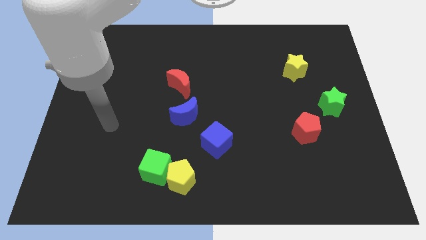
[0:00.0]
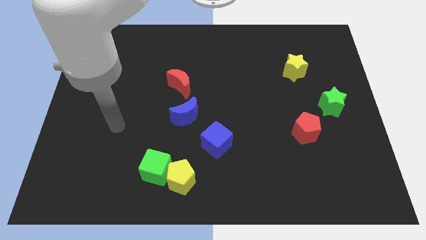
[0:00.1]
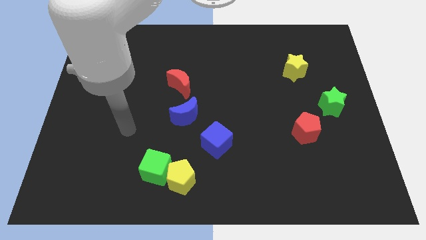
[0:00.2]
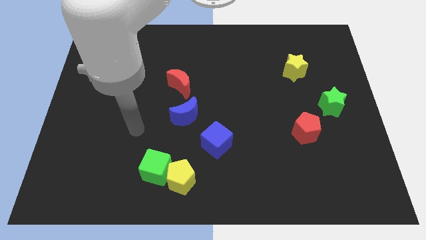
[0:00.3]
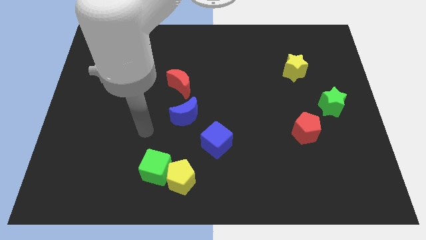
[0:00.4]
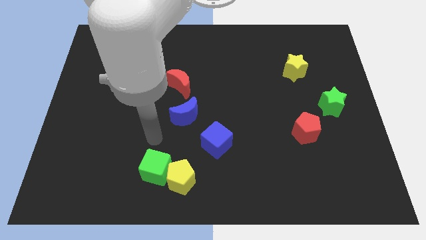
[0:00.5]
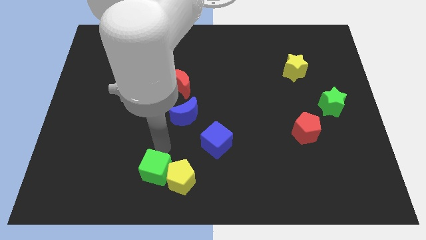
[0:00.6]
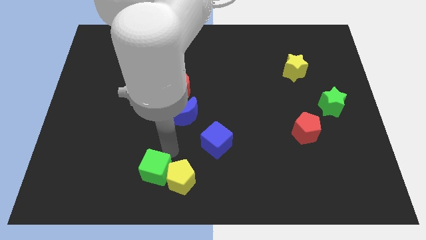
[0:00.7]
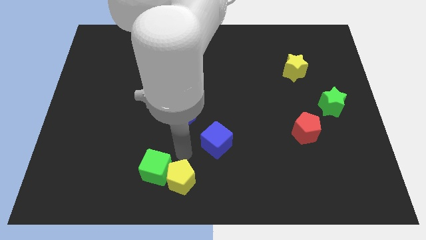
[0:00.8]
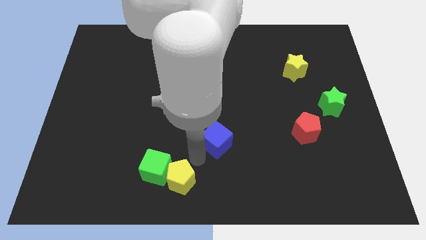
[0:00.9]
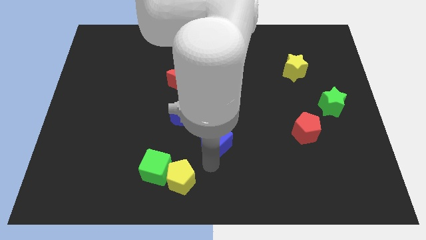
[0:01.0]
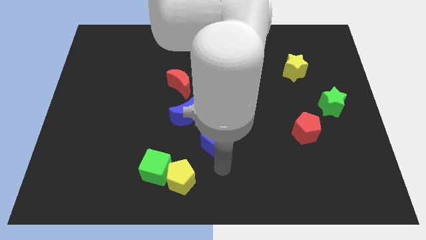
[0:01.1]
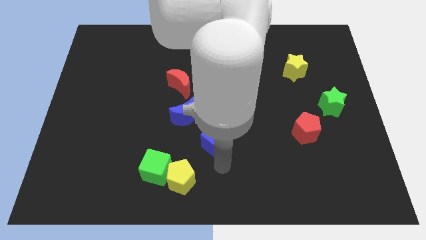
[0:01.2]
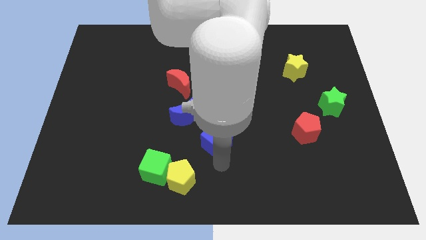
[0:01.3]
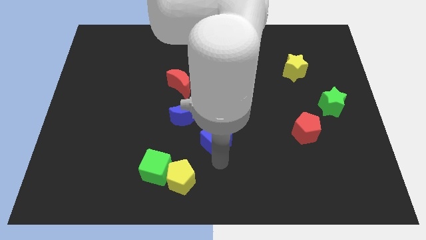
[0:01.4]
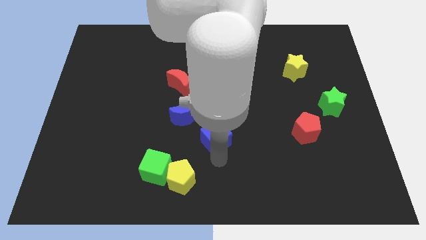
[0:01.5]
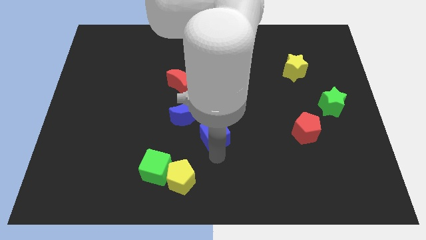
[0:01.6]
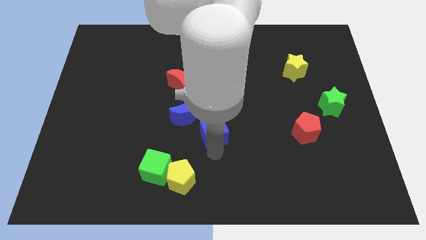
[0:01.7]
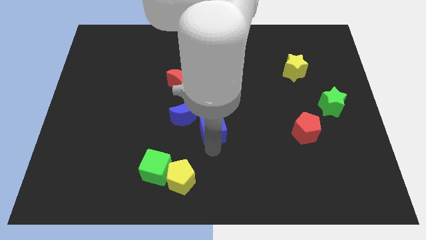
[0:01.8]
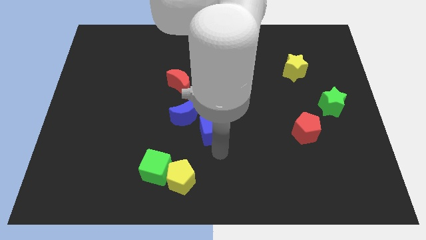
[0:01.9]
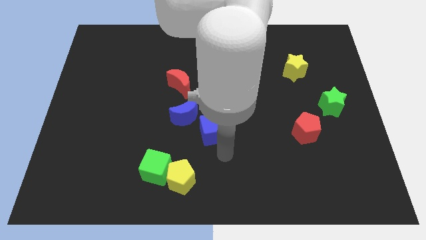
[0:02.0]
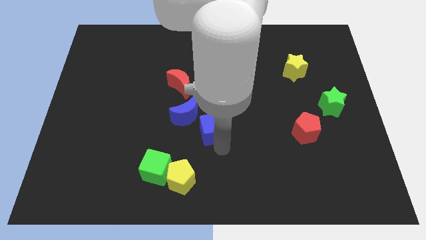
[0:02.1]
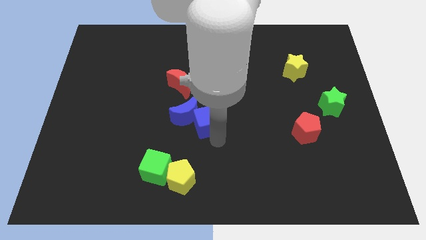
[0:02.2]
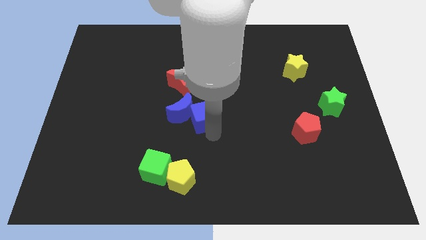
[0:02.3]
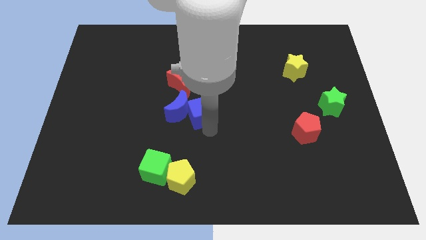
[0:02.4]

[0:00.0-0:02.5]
push the blue cube a bit upwards and left diagonally

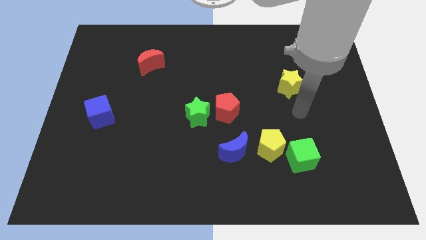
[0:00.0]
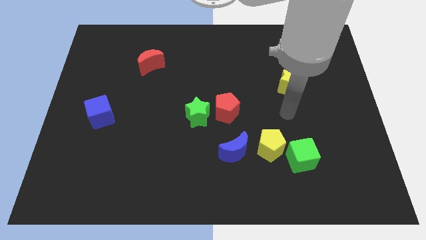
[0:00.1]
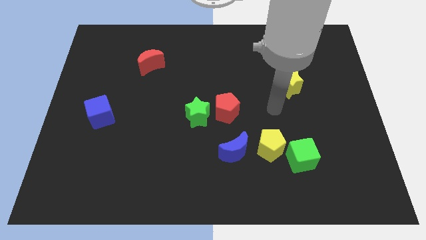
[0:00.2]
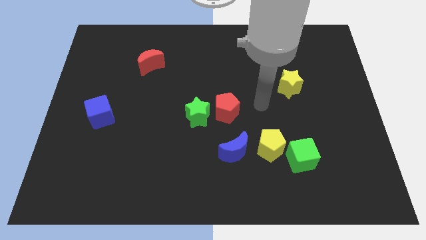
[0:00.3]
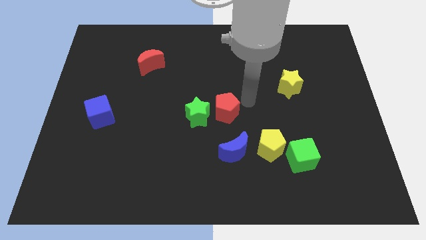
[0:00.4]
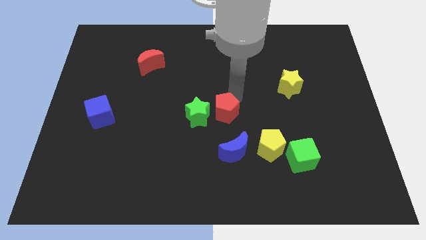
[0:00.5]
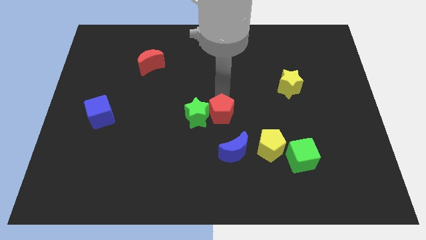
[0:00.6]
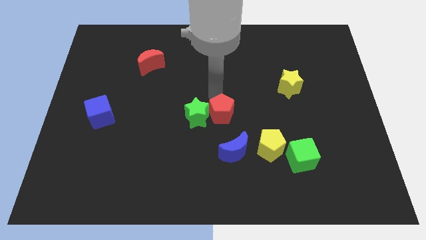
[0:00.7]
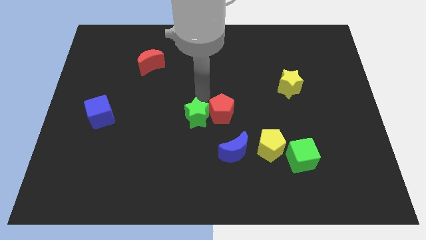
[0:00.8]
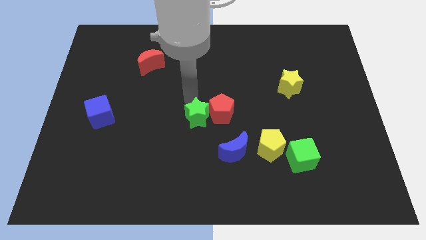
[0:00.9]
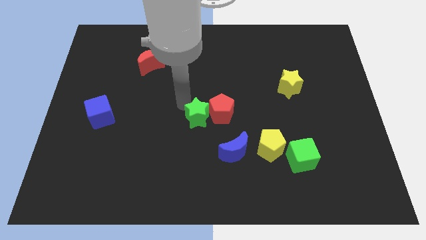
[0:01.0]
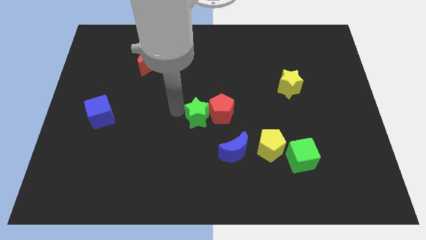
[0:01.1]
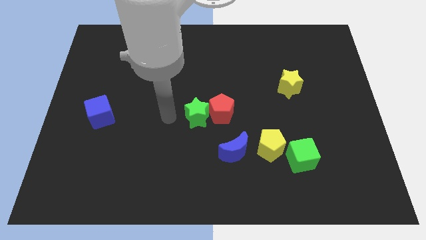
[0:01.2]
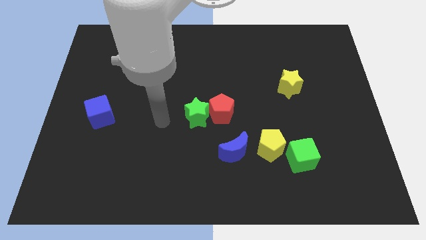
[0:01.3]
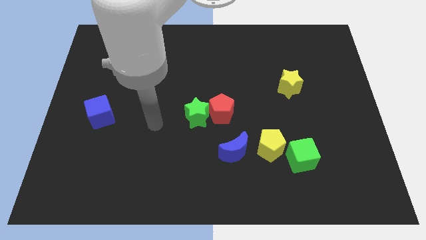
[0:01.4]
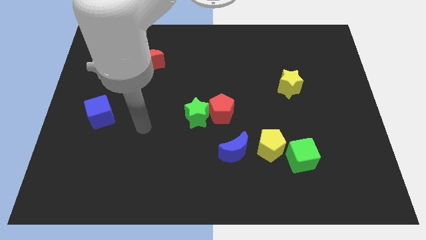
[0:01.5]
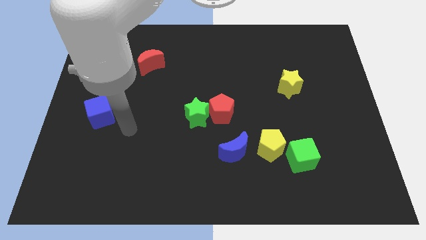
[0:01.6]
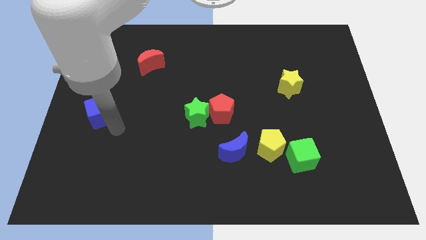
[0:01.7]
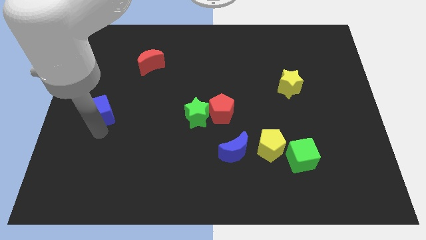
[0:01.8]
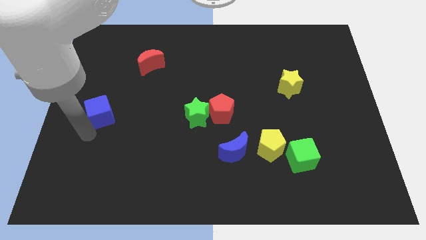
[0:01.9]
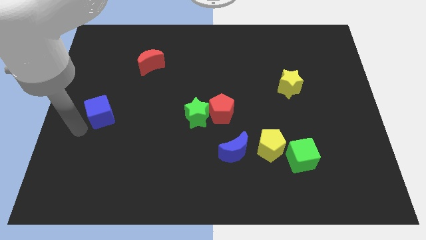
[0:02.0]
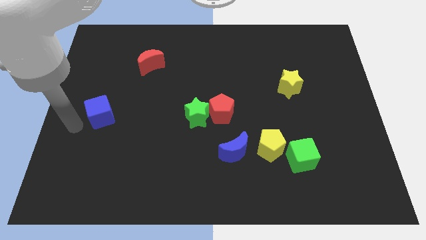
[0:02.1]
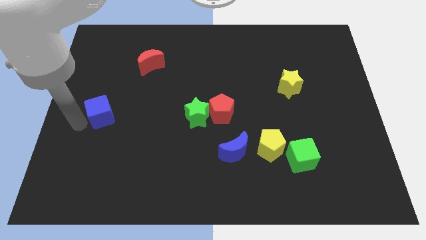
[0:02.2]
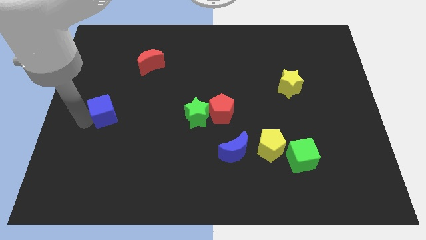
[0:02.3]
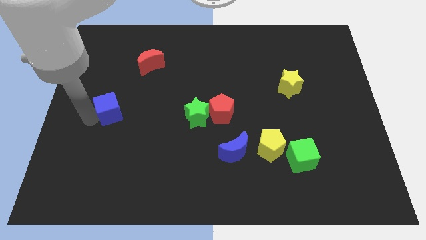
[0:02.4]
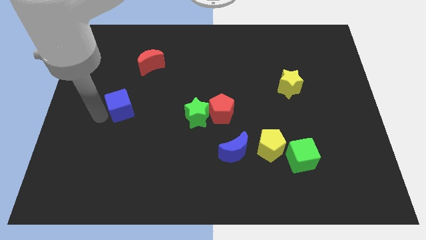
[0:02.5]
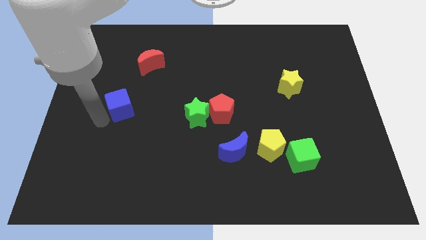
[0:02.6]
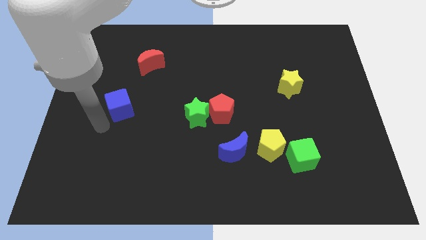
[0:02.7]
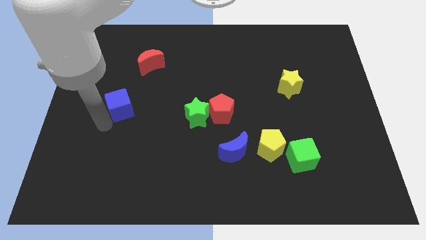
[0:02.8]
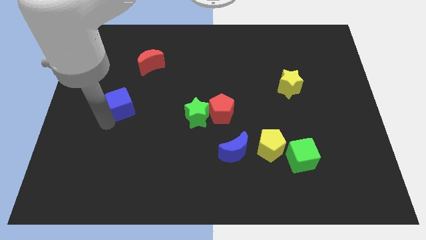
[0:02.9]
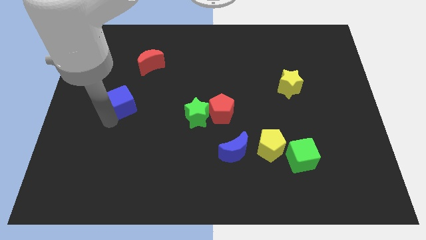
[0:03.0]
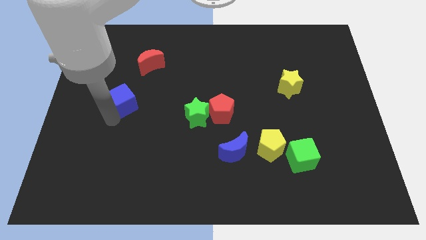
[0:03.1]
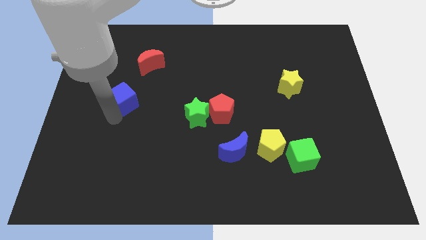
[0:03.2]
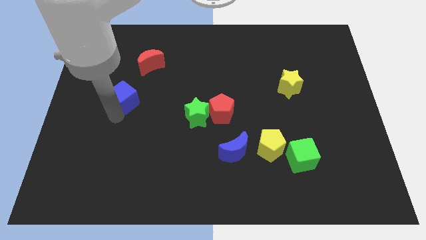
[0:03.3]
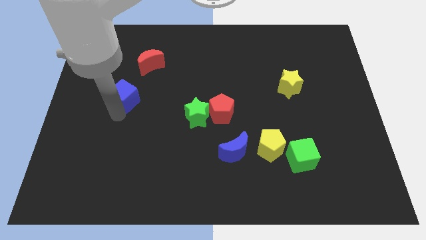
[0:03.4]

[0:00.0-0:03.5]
slide the blue cube a bit upwards and right

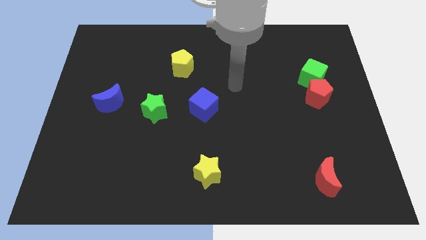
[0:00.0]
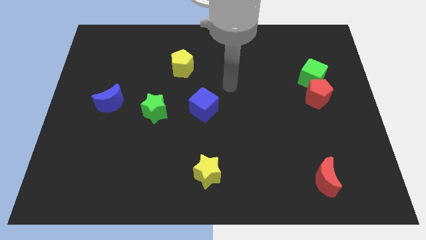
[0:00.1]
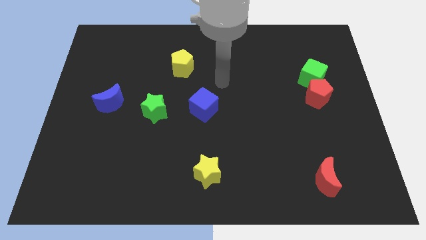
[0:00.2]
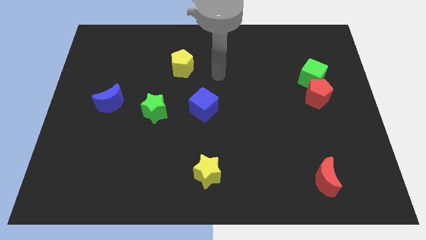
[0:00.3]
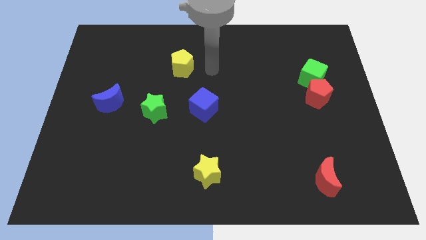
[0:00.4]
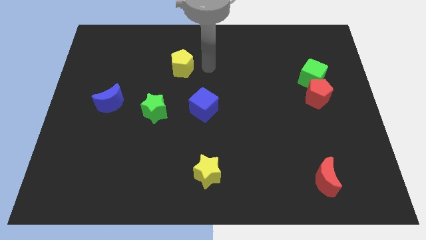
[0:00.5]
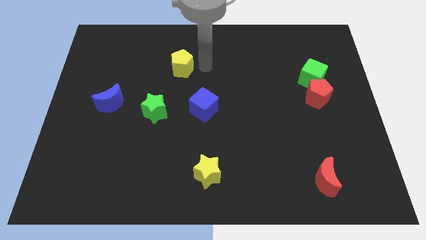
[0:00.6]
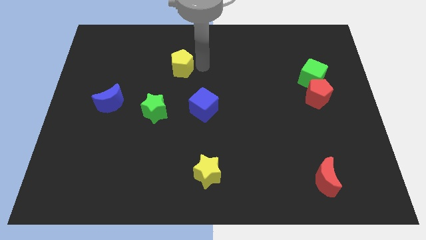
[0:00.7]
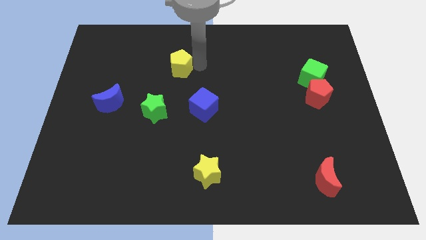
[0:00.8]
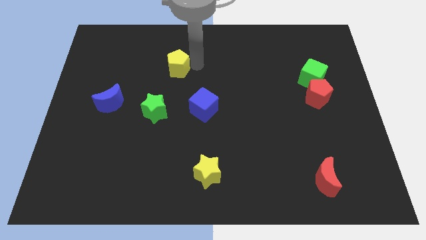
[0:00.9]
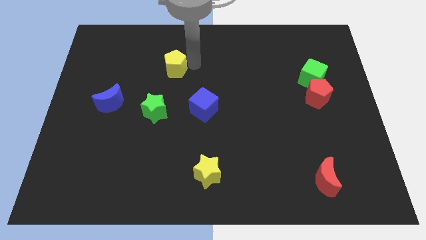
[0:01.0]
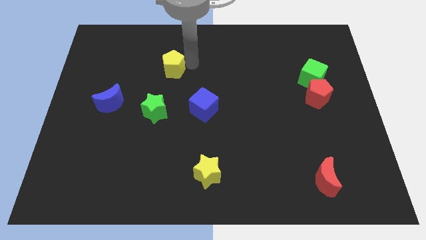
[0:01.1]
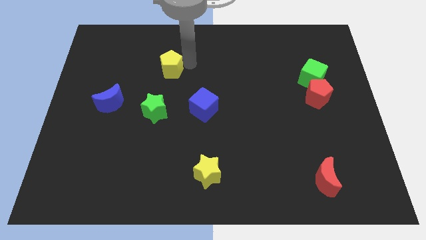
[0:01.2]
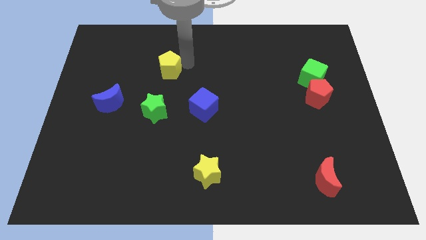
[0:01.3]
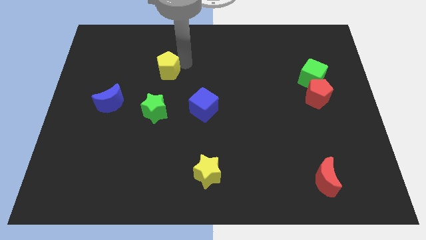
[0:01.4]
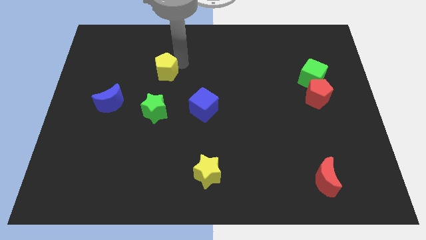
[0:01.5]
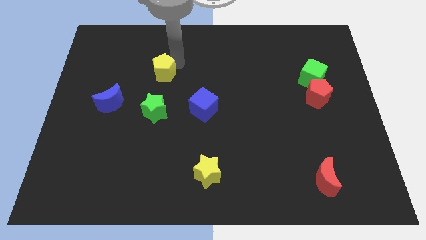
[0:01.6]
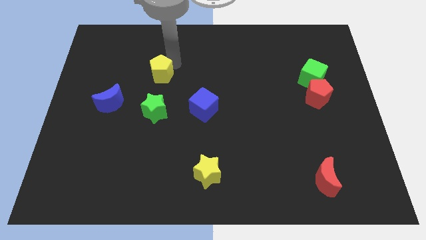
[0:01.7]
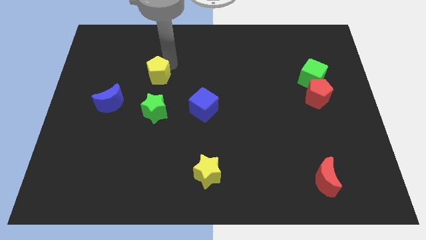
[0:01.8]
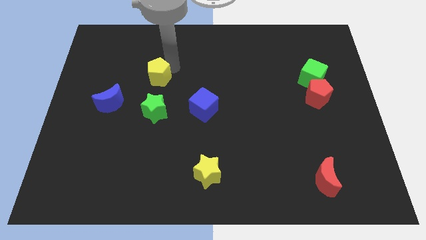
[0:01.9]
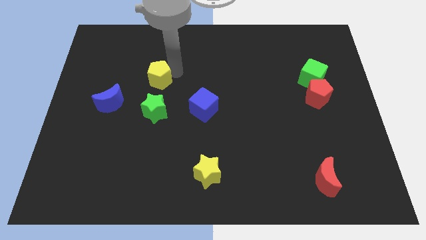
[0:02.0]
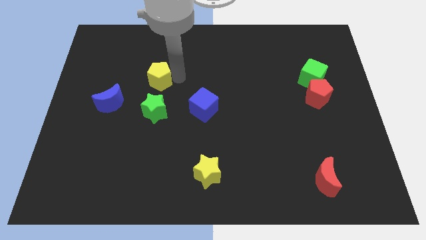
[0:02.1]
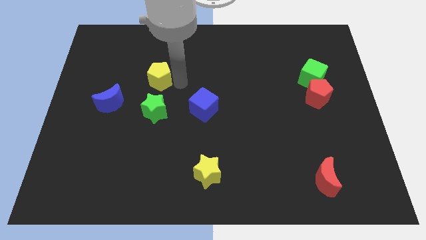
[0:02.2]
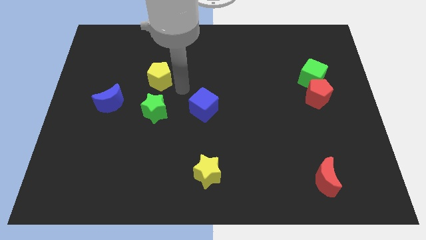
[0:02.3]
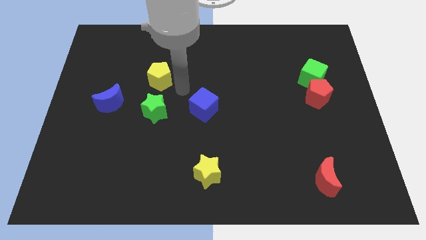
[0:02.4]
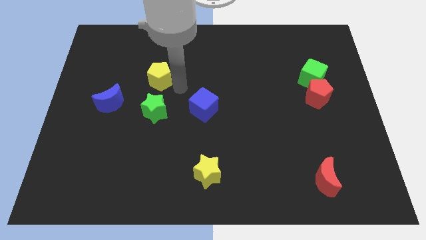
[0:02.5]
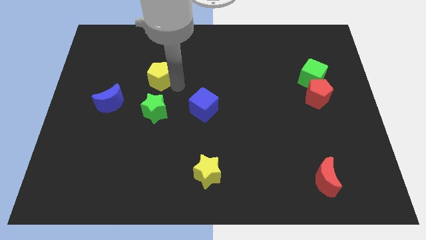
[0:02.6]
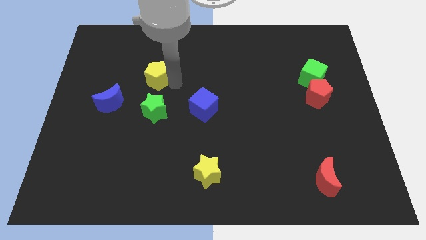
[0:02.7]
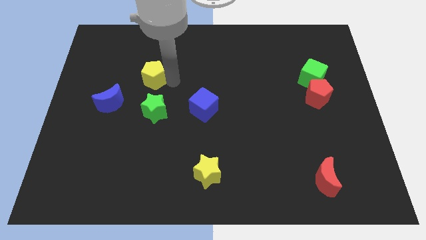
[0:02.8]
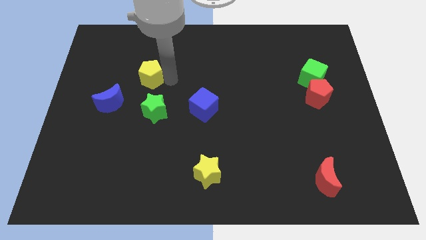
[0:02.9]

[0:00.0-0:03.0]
slide the yellow pentagon to the left slightly
